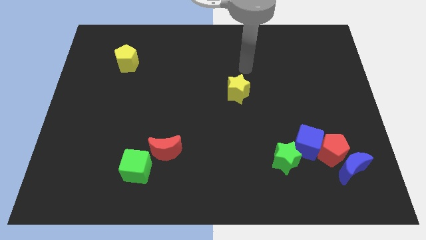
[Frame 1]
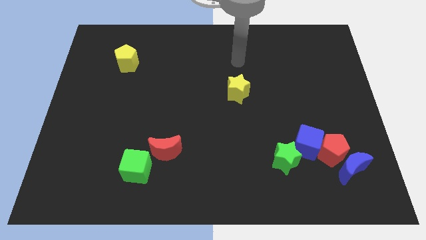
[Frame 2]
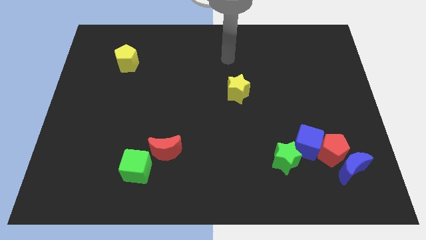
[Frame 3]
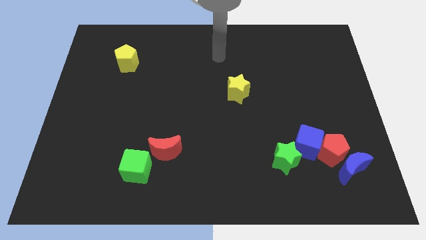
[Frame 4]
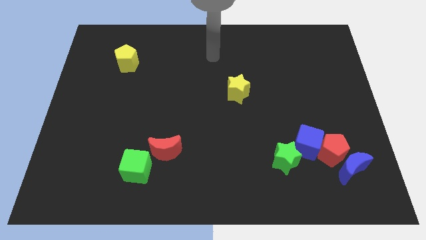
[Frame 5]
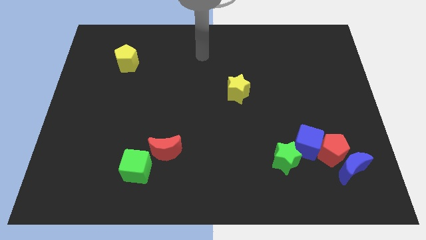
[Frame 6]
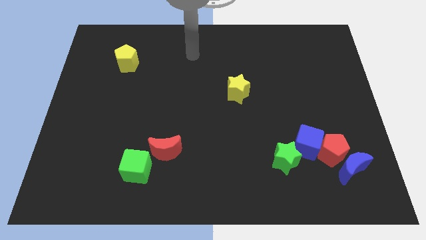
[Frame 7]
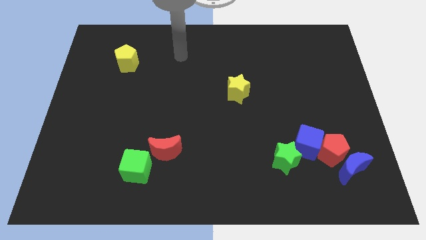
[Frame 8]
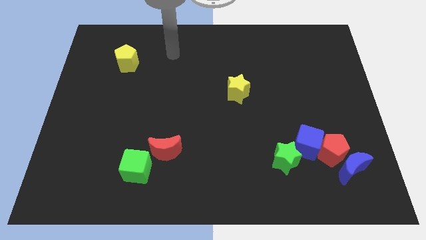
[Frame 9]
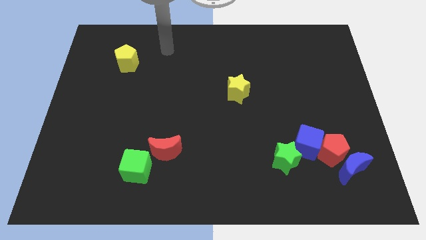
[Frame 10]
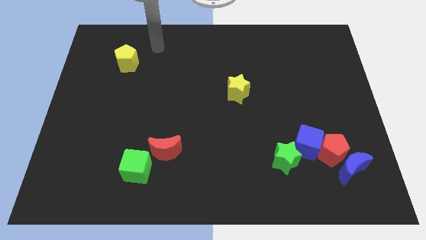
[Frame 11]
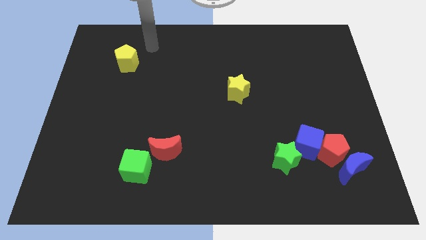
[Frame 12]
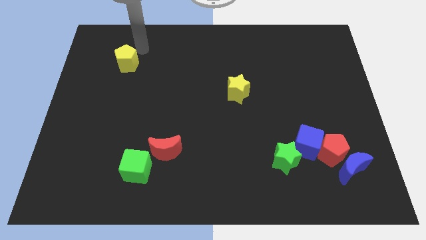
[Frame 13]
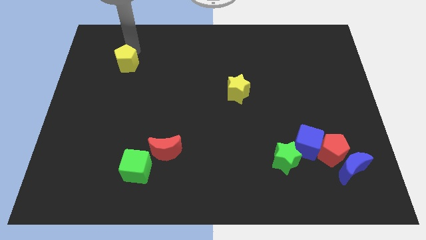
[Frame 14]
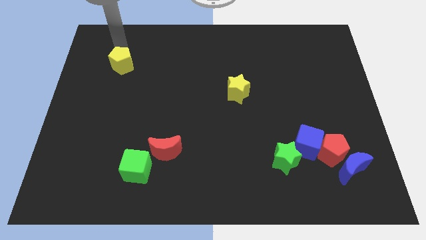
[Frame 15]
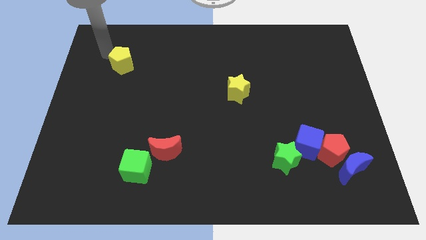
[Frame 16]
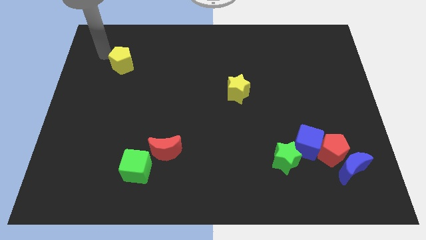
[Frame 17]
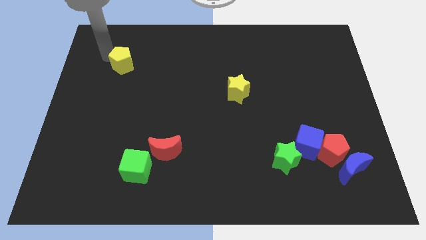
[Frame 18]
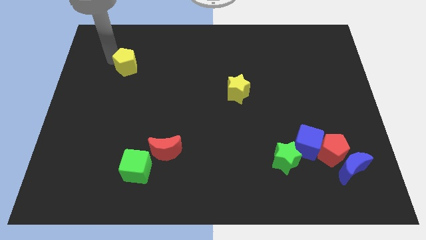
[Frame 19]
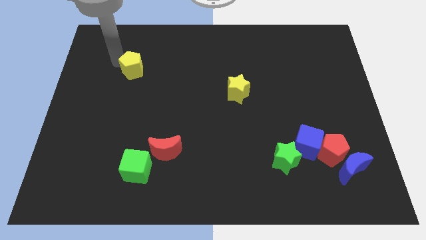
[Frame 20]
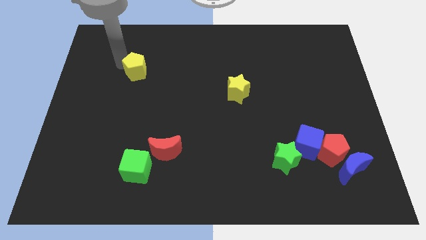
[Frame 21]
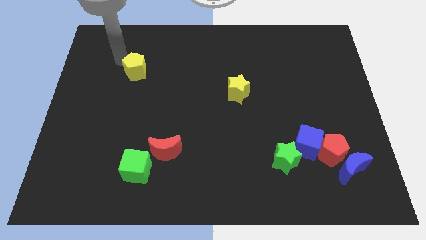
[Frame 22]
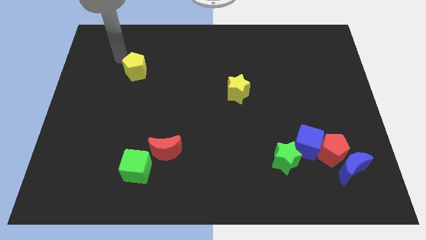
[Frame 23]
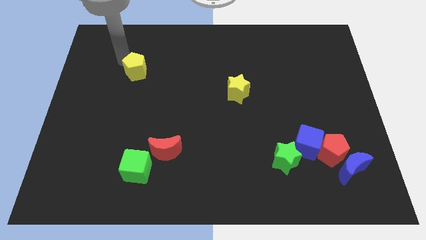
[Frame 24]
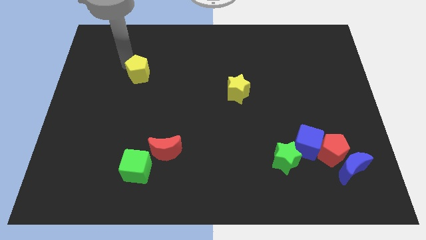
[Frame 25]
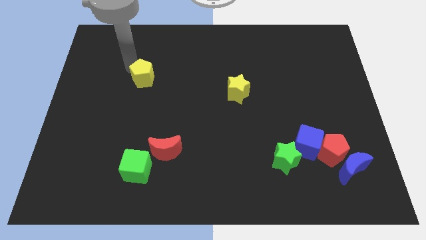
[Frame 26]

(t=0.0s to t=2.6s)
push the yellow pentagon down and to the right diagonally a bit

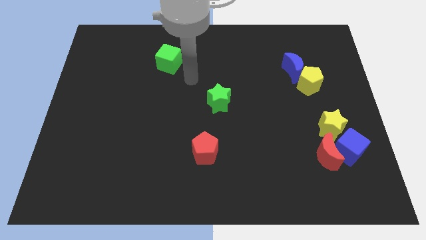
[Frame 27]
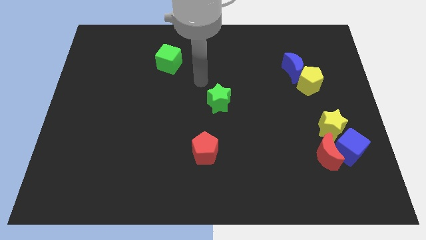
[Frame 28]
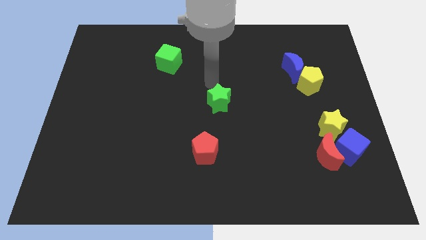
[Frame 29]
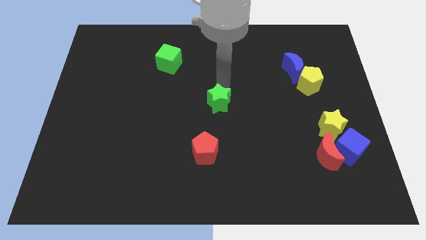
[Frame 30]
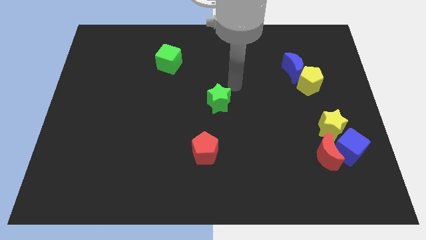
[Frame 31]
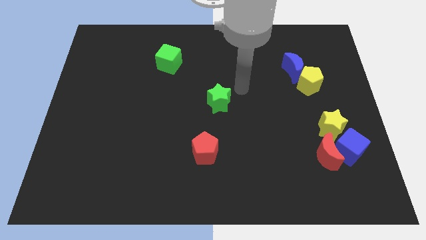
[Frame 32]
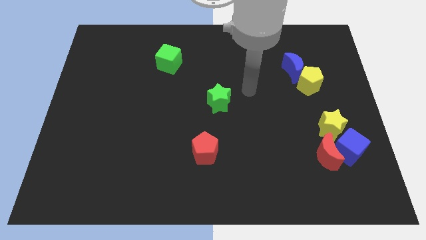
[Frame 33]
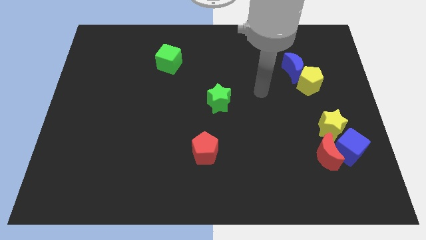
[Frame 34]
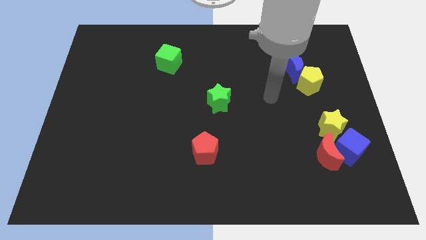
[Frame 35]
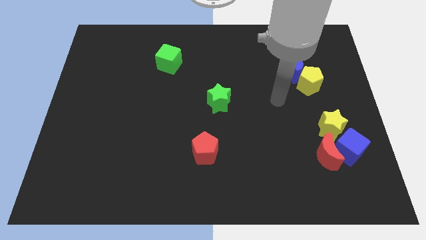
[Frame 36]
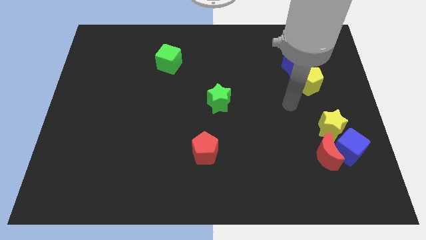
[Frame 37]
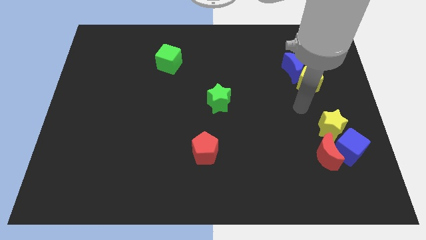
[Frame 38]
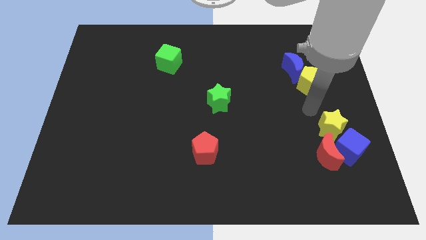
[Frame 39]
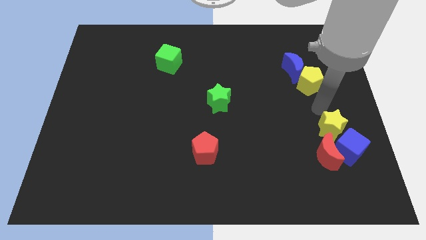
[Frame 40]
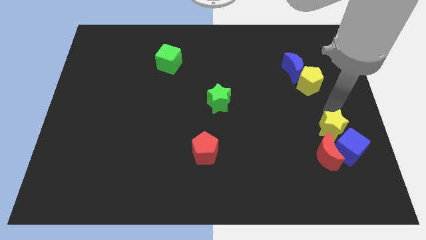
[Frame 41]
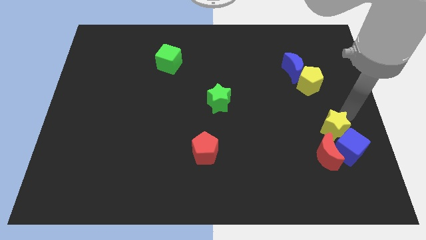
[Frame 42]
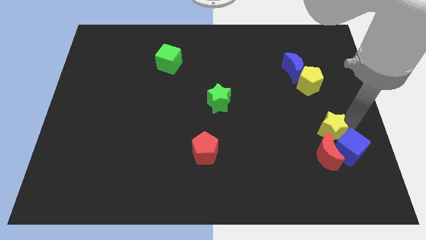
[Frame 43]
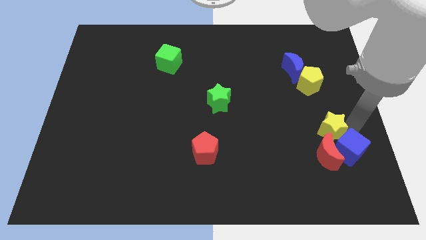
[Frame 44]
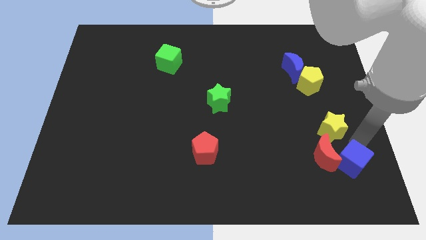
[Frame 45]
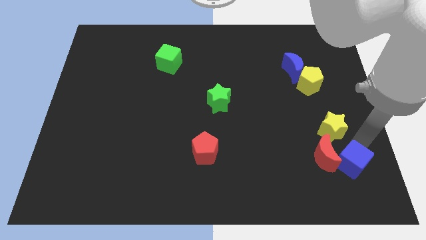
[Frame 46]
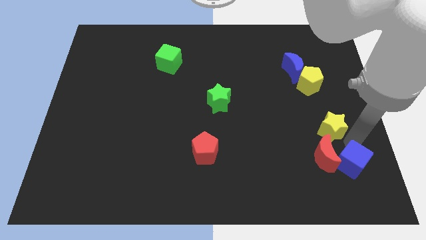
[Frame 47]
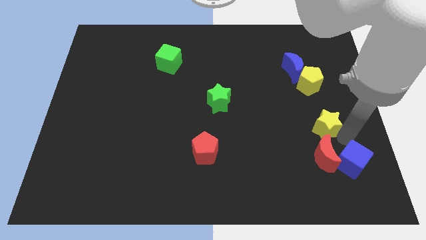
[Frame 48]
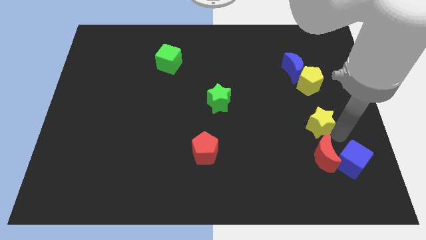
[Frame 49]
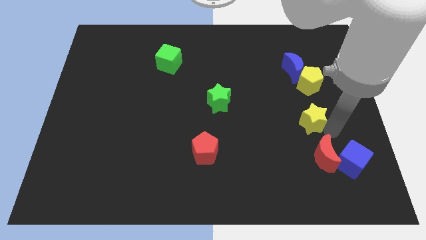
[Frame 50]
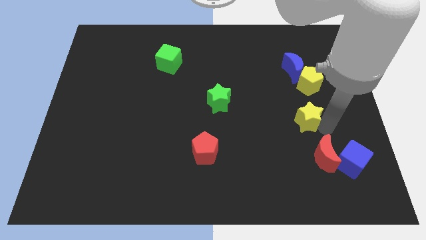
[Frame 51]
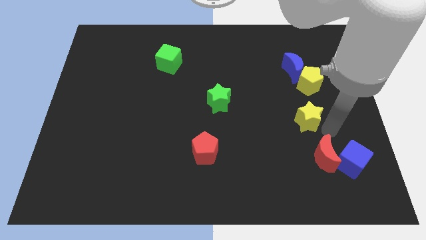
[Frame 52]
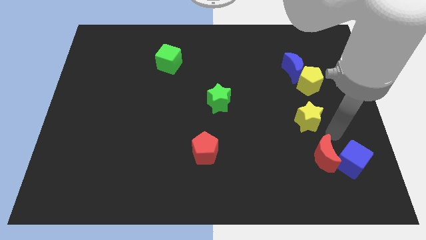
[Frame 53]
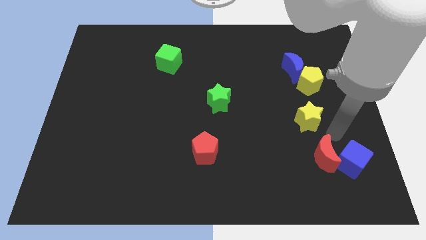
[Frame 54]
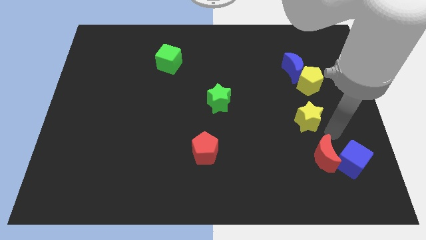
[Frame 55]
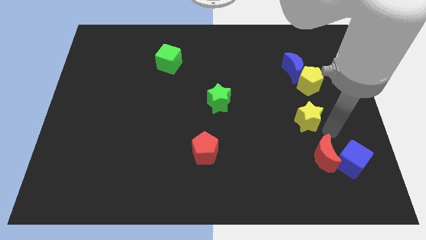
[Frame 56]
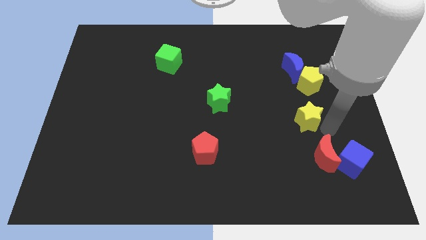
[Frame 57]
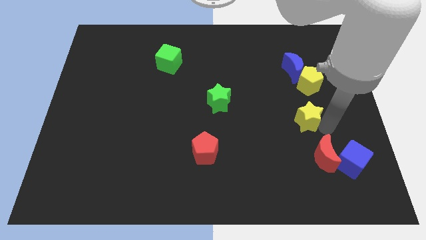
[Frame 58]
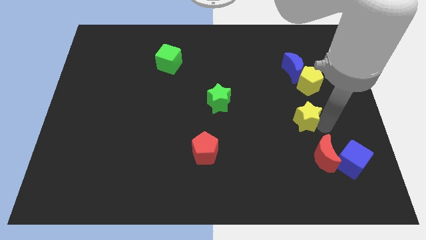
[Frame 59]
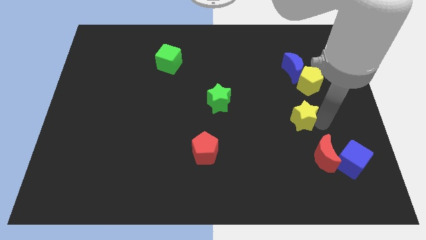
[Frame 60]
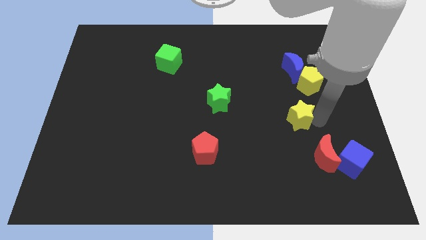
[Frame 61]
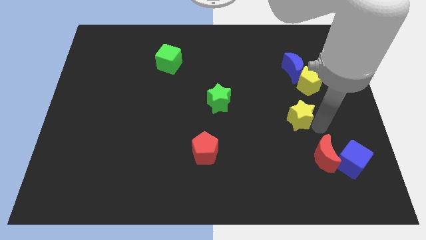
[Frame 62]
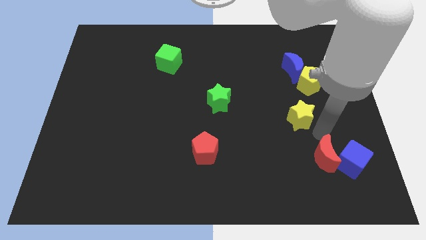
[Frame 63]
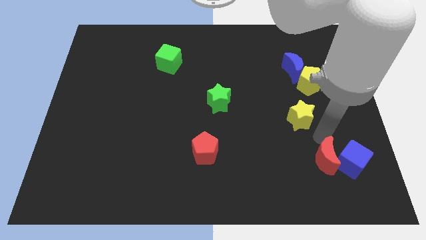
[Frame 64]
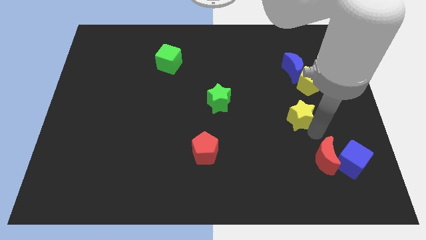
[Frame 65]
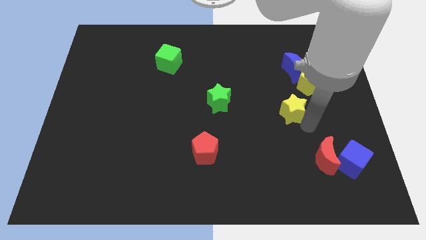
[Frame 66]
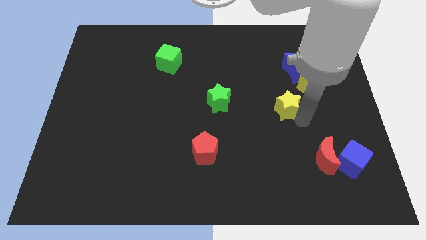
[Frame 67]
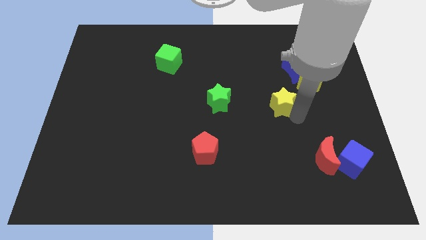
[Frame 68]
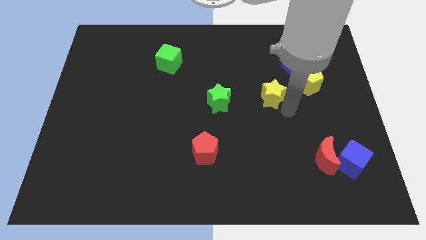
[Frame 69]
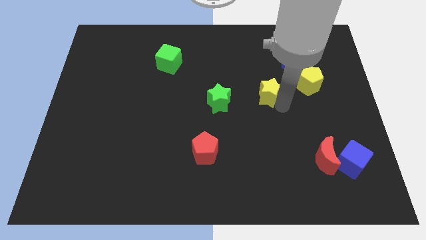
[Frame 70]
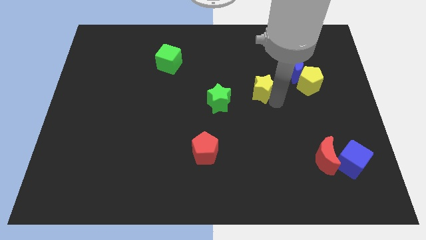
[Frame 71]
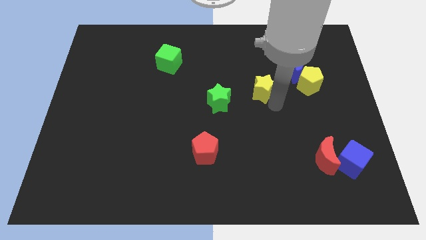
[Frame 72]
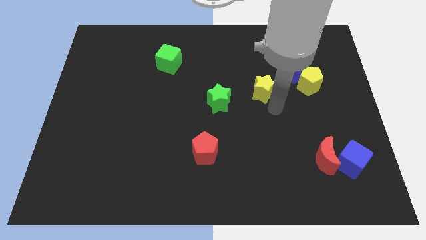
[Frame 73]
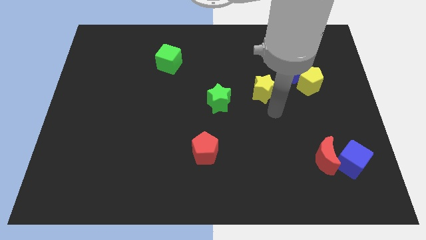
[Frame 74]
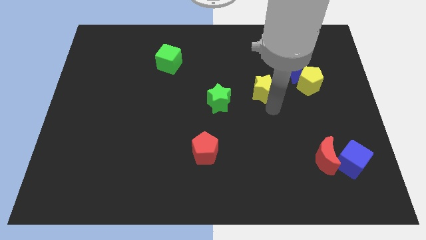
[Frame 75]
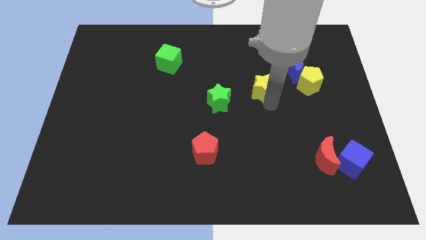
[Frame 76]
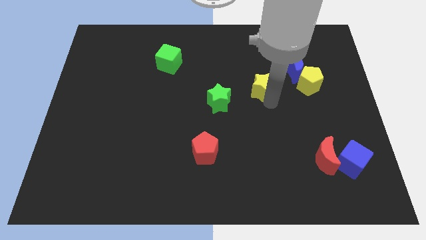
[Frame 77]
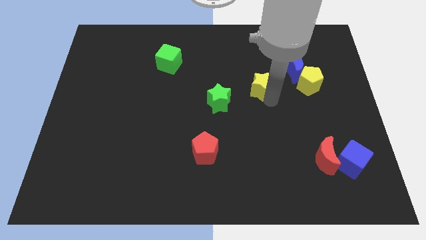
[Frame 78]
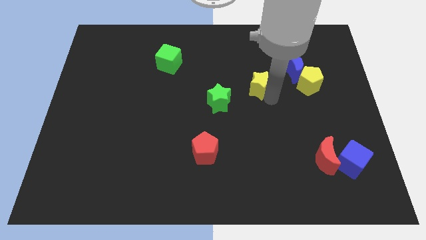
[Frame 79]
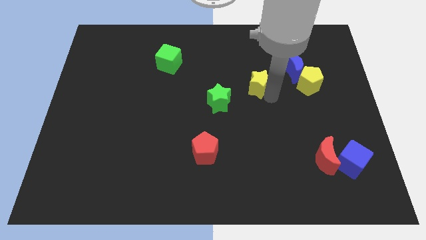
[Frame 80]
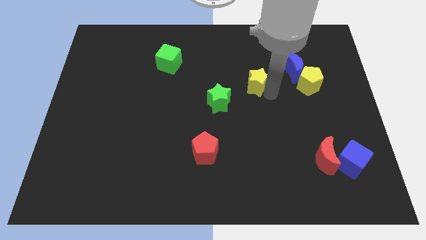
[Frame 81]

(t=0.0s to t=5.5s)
push the yellow star upwards and left
